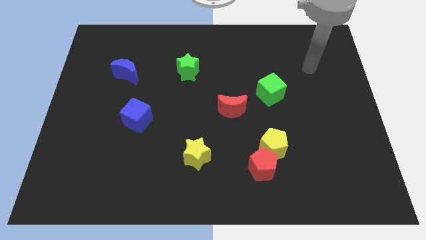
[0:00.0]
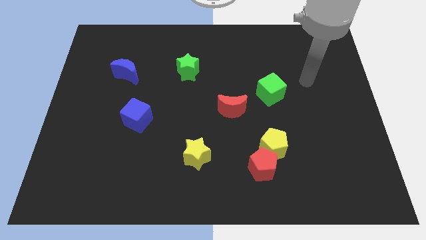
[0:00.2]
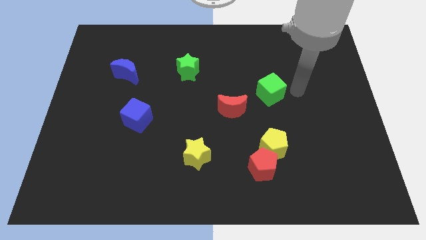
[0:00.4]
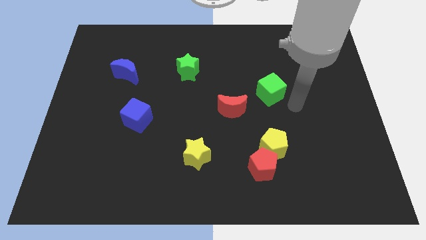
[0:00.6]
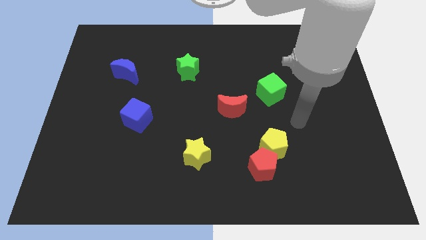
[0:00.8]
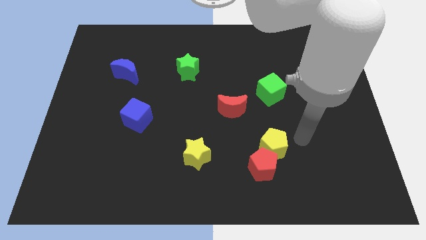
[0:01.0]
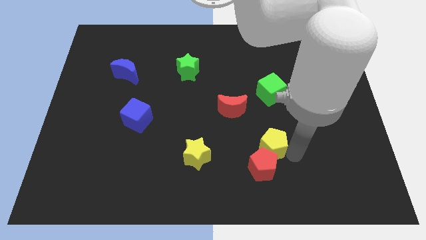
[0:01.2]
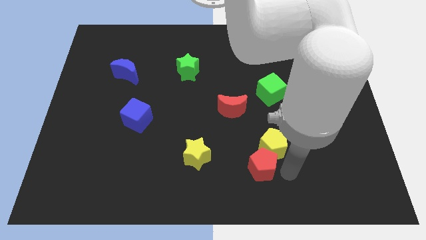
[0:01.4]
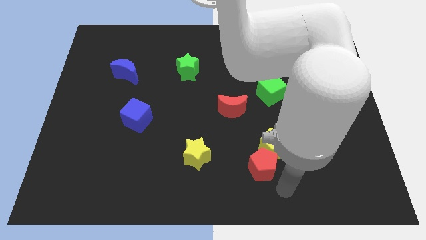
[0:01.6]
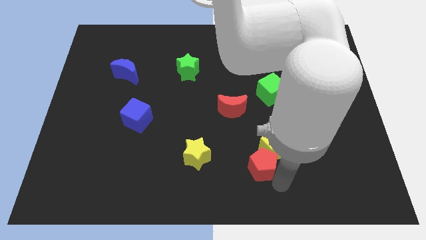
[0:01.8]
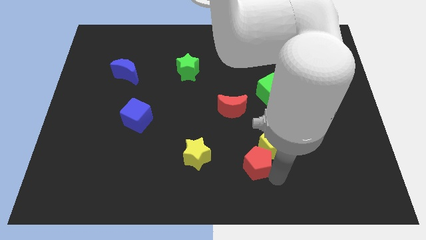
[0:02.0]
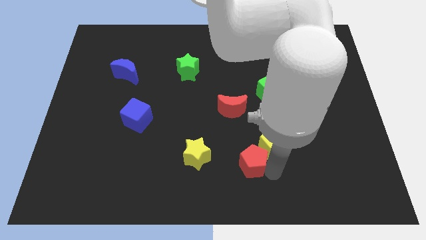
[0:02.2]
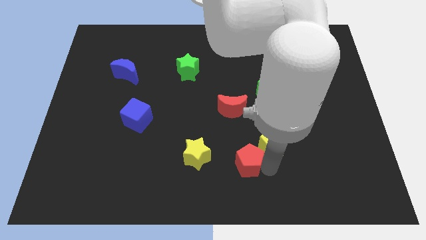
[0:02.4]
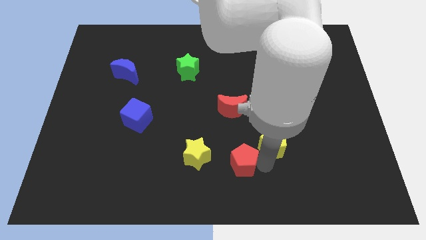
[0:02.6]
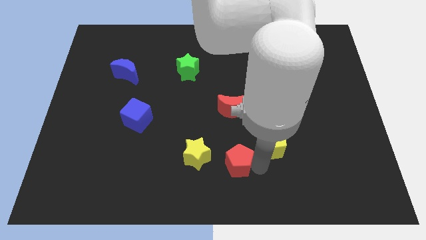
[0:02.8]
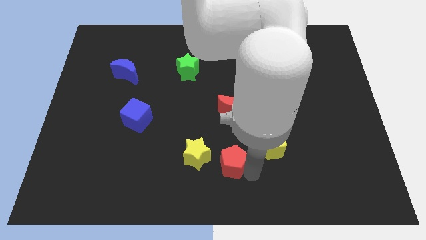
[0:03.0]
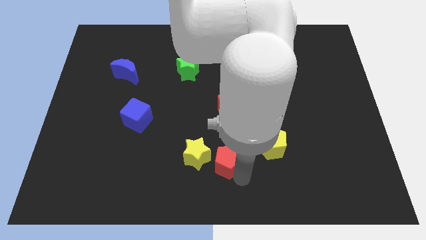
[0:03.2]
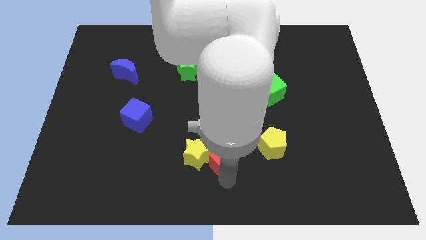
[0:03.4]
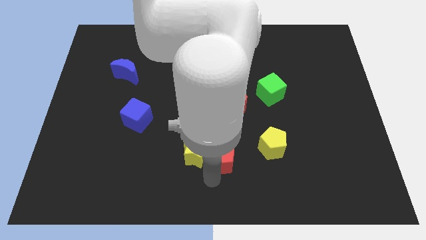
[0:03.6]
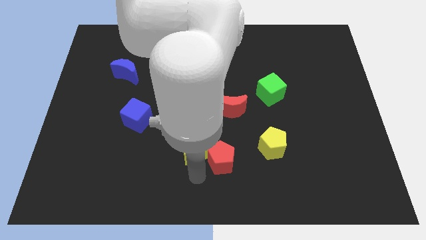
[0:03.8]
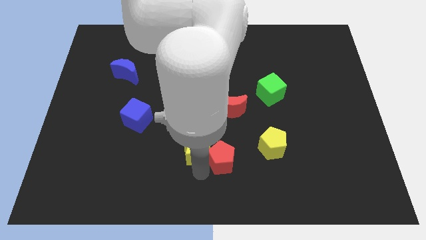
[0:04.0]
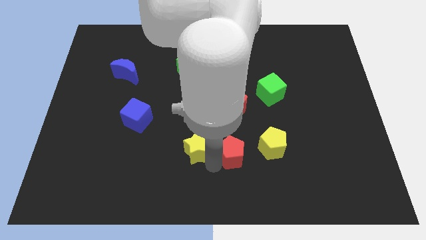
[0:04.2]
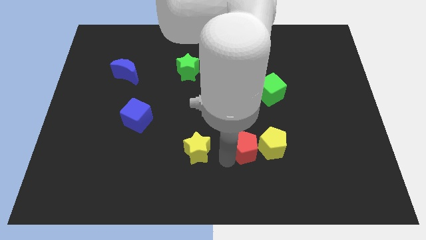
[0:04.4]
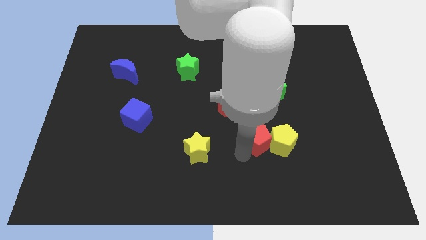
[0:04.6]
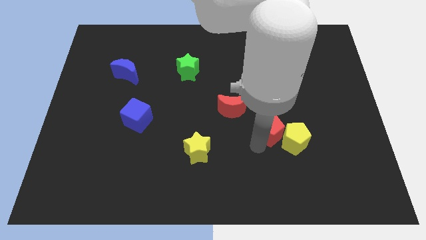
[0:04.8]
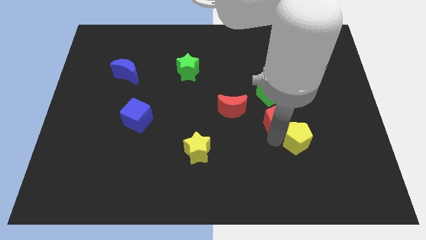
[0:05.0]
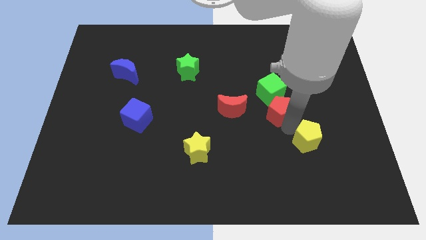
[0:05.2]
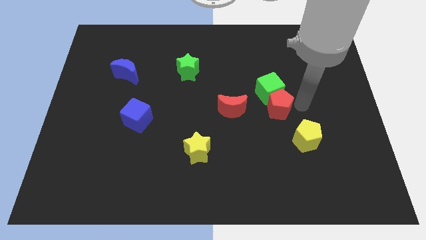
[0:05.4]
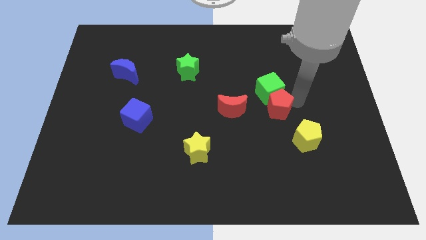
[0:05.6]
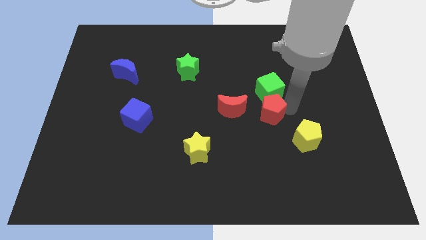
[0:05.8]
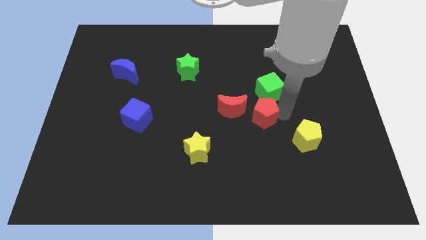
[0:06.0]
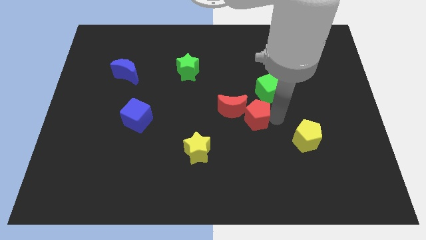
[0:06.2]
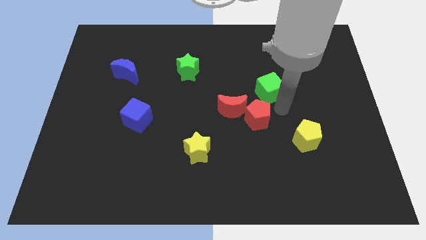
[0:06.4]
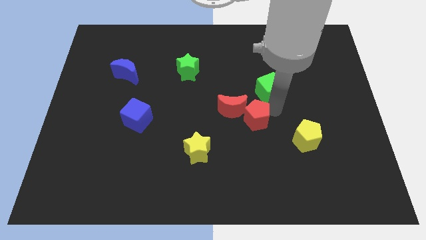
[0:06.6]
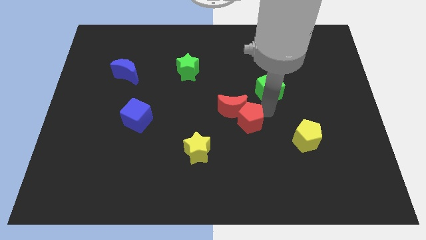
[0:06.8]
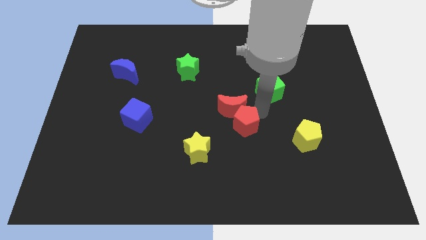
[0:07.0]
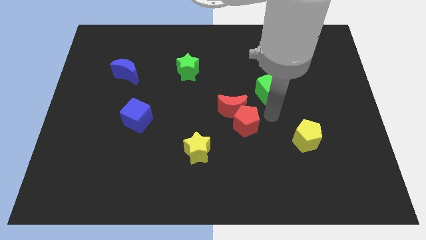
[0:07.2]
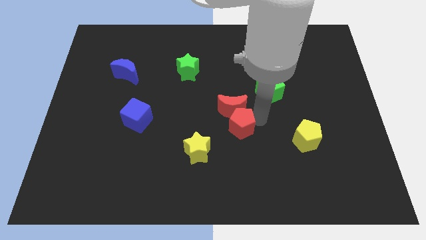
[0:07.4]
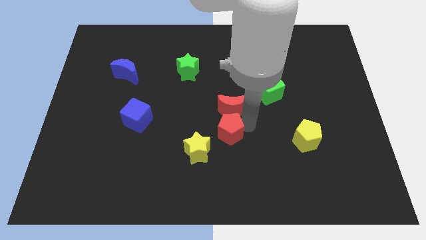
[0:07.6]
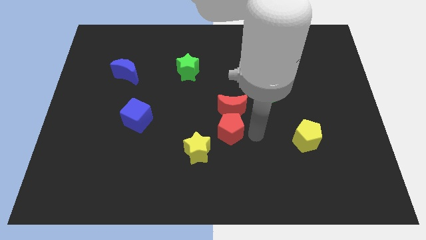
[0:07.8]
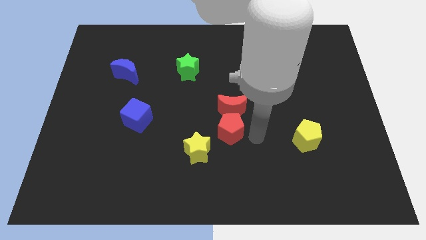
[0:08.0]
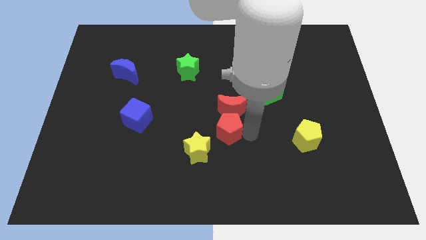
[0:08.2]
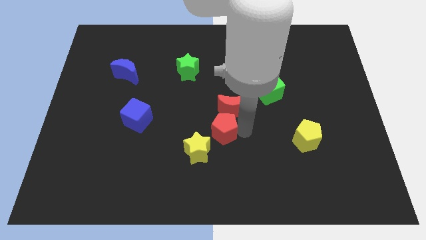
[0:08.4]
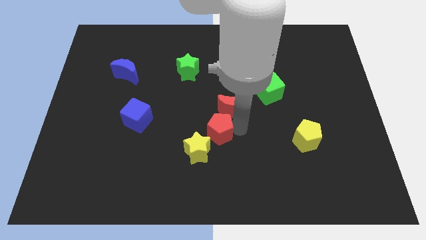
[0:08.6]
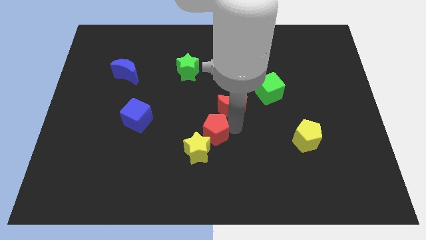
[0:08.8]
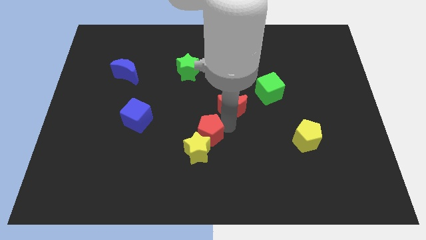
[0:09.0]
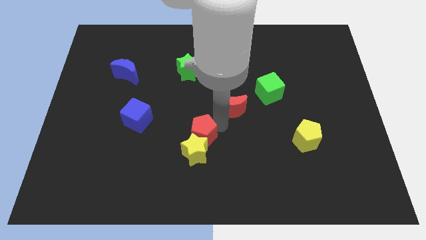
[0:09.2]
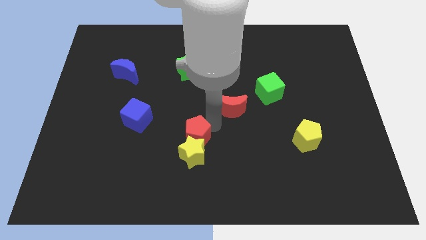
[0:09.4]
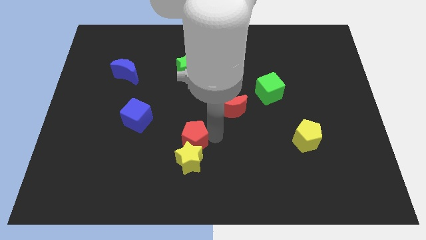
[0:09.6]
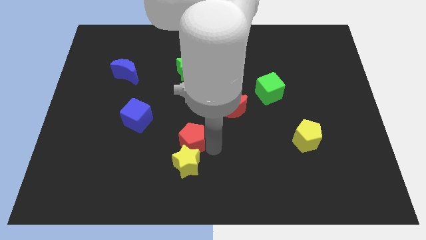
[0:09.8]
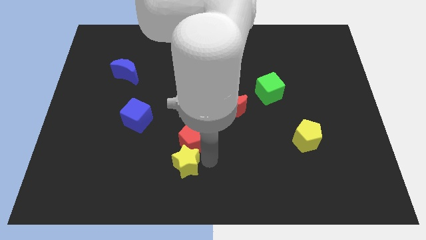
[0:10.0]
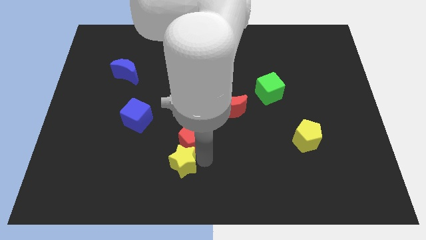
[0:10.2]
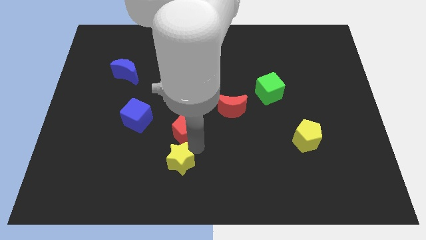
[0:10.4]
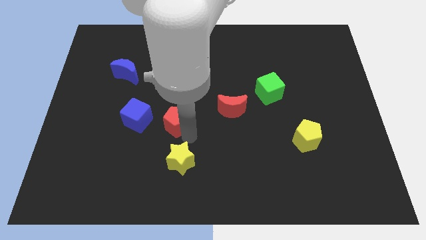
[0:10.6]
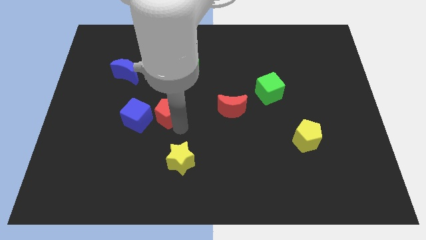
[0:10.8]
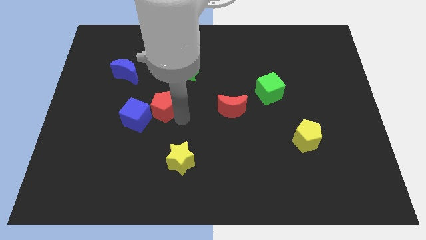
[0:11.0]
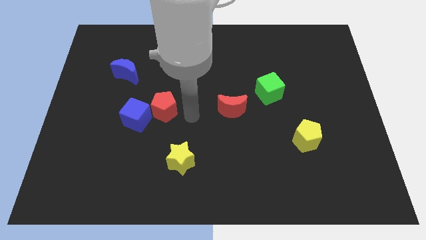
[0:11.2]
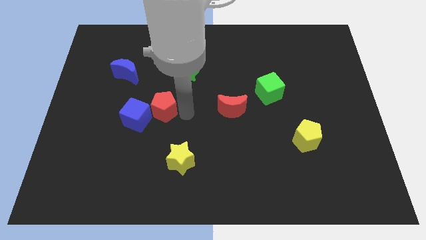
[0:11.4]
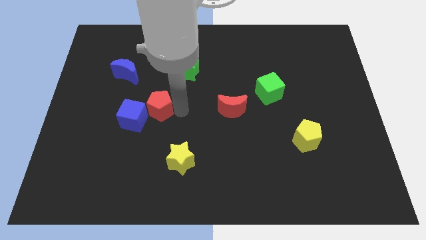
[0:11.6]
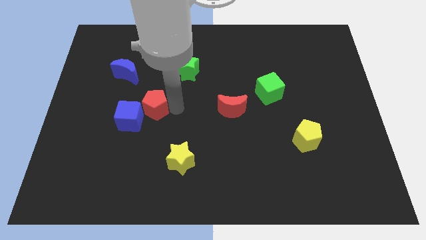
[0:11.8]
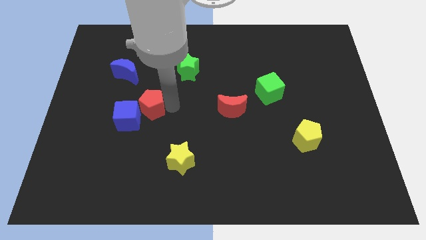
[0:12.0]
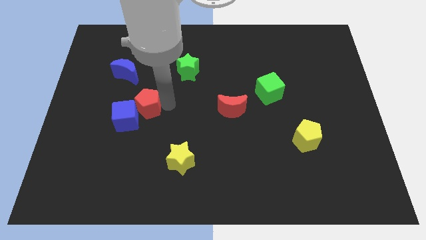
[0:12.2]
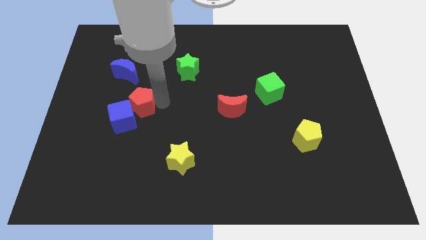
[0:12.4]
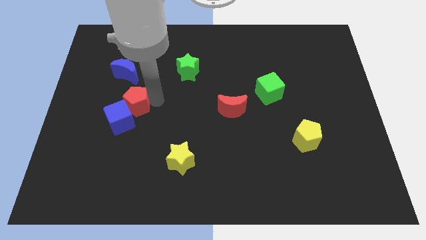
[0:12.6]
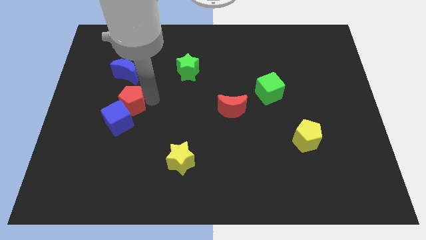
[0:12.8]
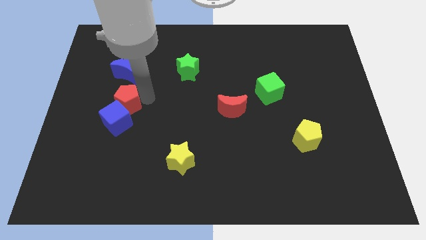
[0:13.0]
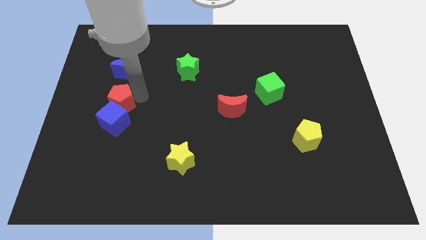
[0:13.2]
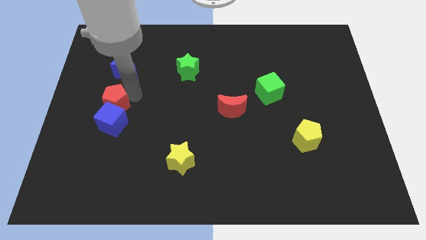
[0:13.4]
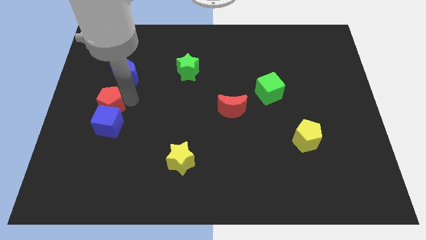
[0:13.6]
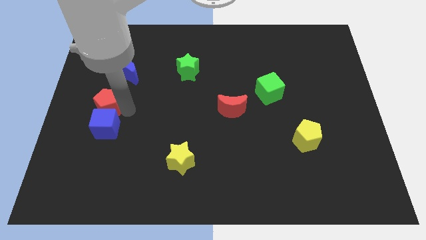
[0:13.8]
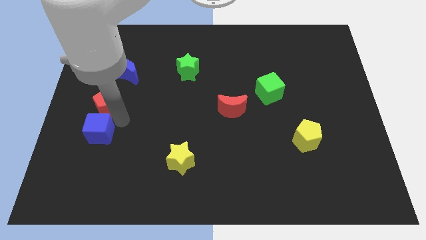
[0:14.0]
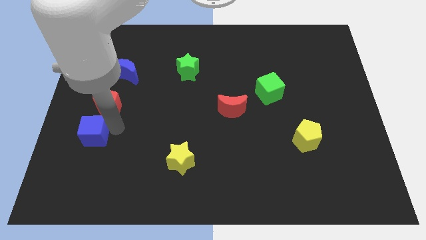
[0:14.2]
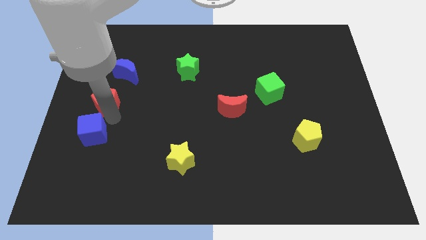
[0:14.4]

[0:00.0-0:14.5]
move the red pentagon to the bottom left side of the blue moon
